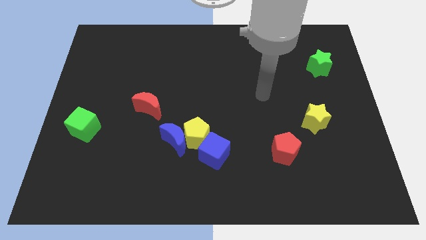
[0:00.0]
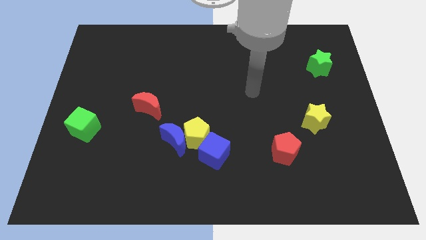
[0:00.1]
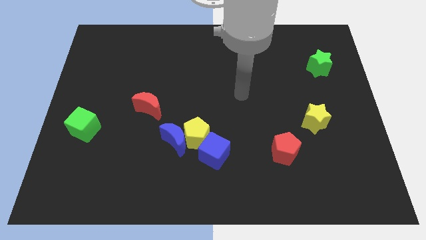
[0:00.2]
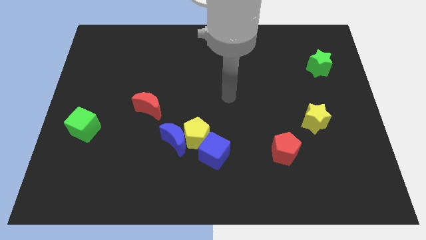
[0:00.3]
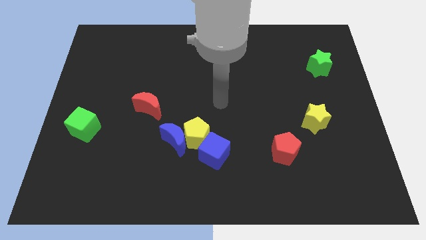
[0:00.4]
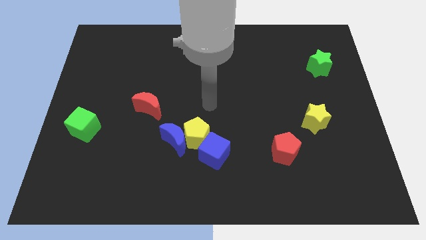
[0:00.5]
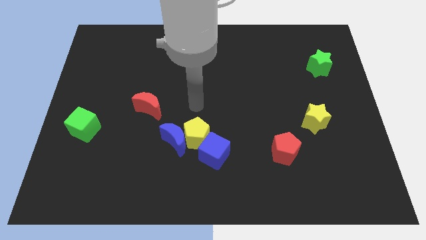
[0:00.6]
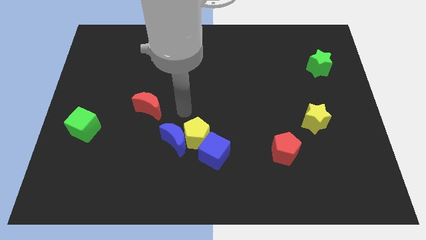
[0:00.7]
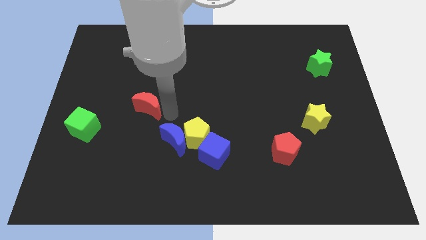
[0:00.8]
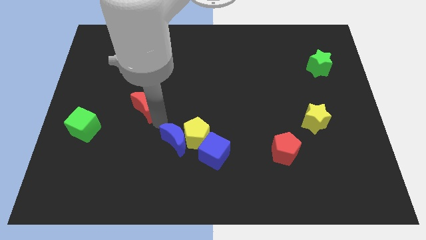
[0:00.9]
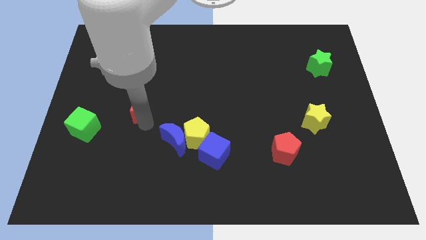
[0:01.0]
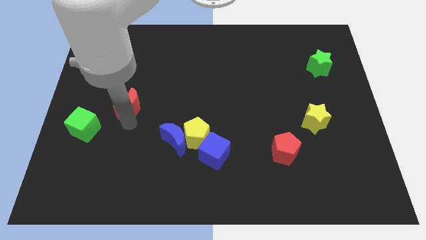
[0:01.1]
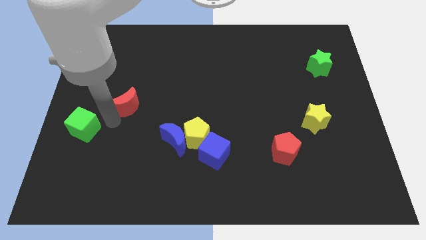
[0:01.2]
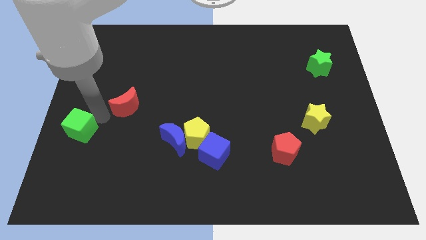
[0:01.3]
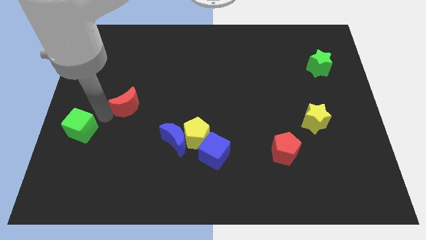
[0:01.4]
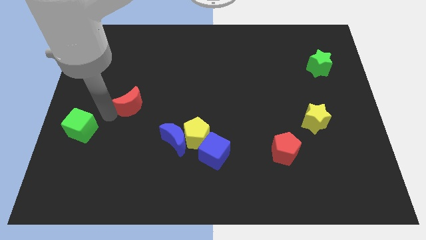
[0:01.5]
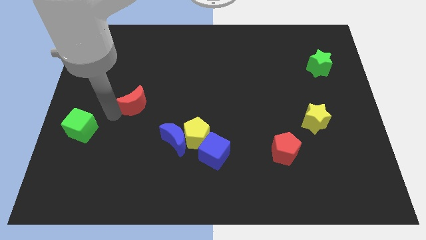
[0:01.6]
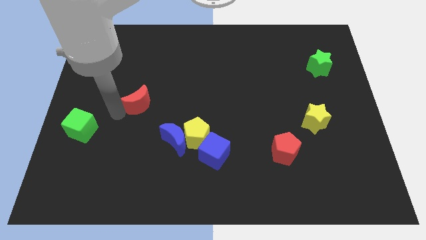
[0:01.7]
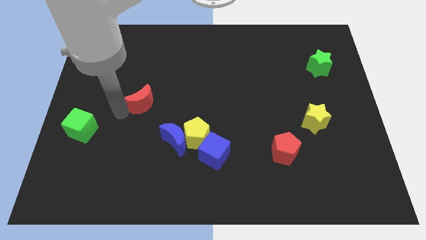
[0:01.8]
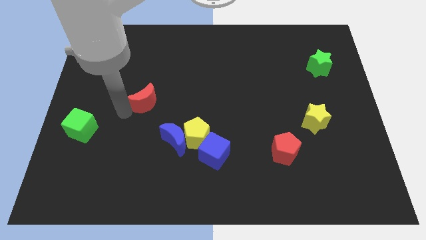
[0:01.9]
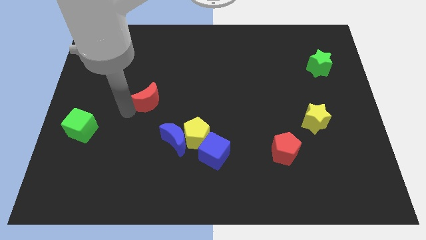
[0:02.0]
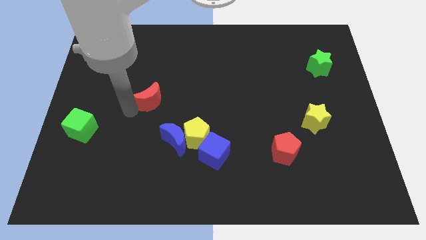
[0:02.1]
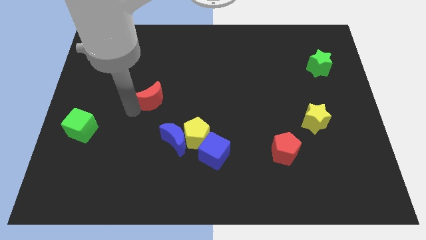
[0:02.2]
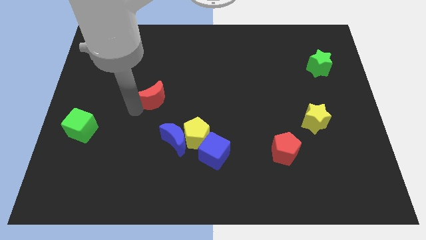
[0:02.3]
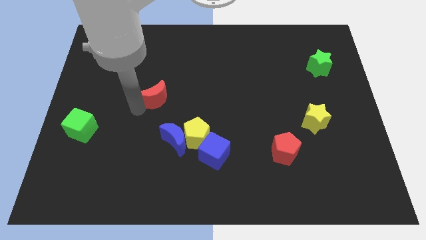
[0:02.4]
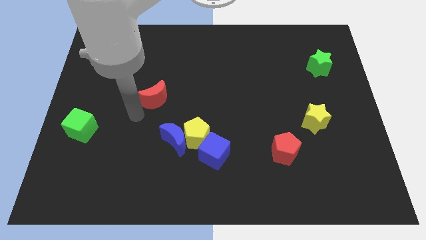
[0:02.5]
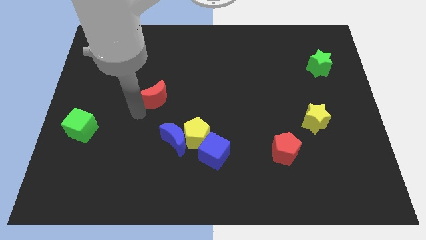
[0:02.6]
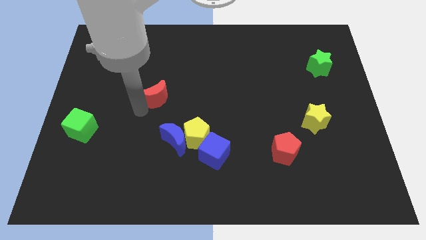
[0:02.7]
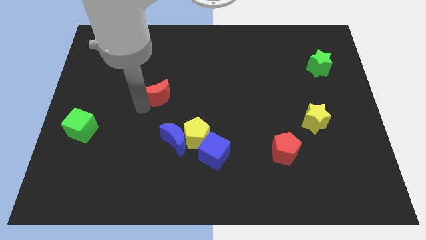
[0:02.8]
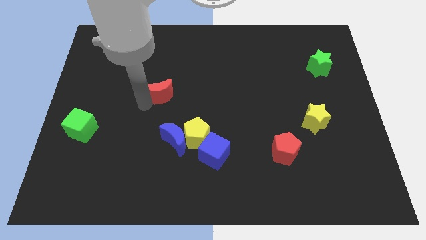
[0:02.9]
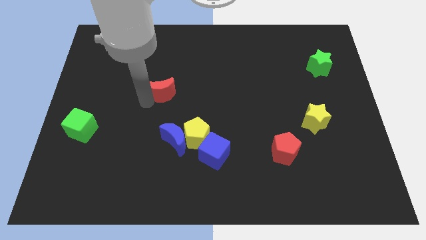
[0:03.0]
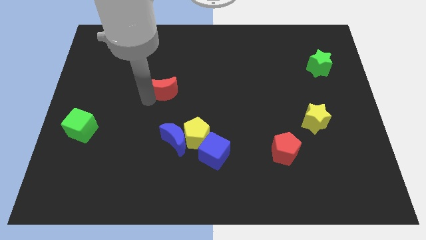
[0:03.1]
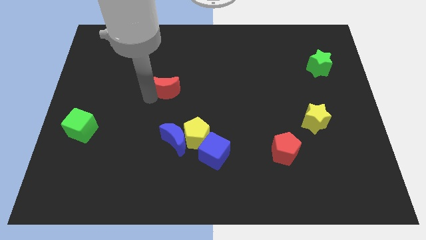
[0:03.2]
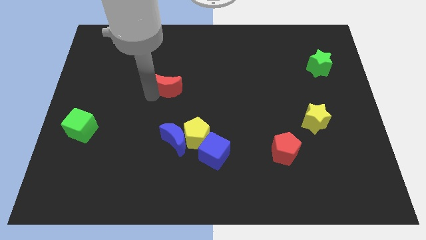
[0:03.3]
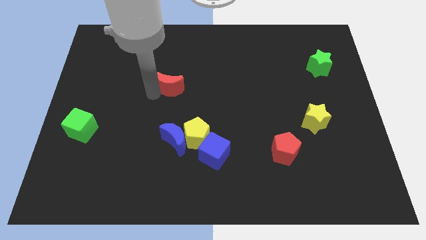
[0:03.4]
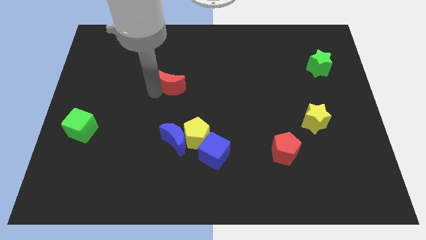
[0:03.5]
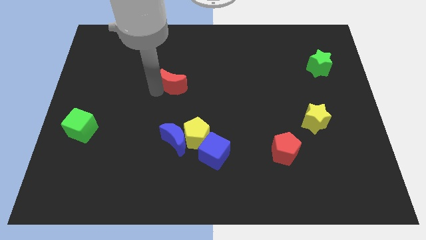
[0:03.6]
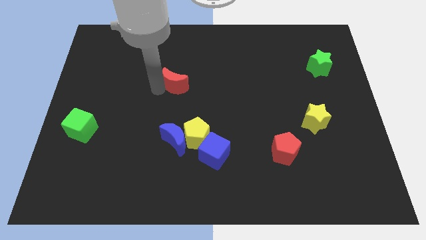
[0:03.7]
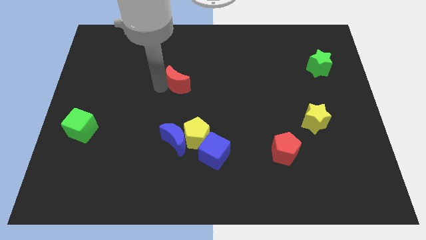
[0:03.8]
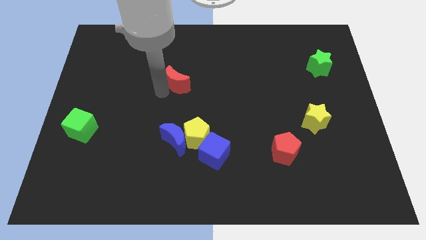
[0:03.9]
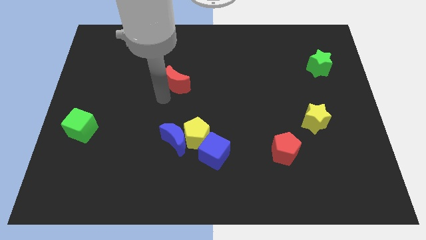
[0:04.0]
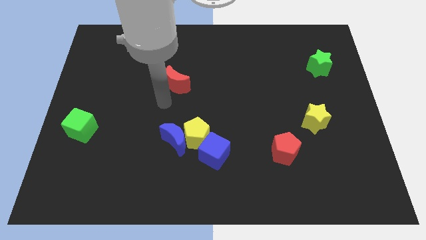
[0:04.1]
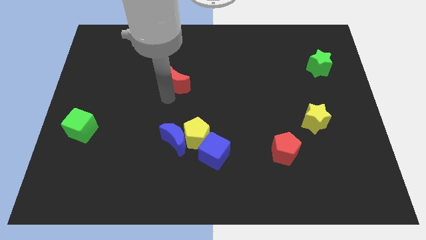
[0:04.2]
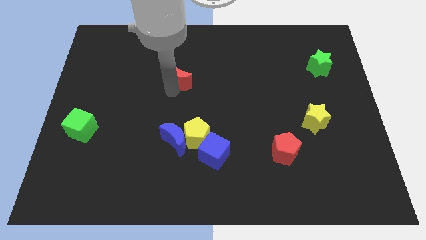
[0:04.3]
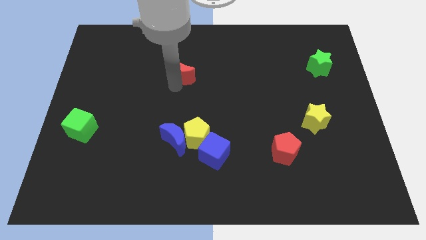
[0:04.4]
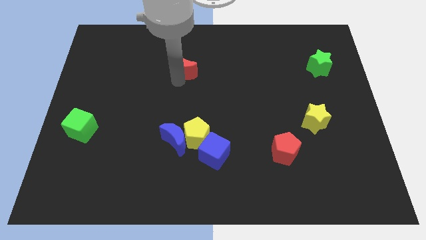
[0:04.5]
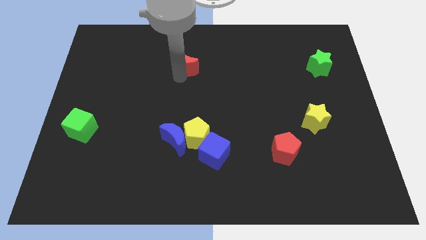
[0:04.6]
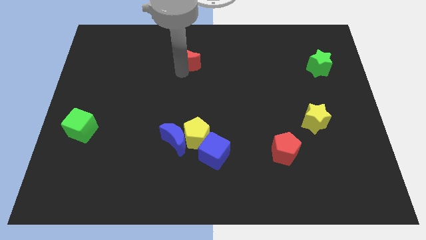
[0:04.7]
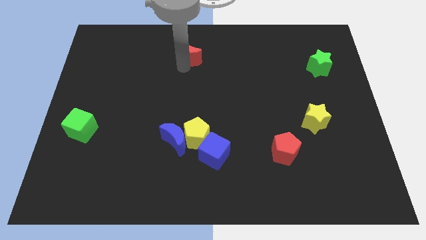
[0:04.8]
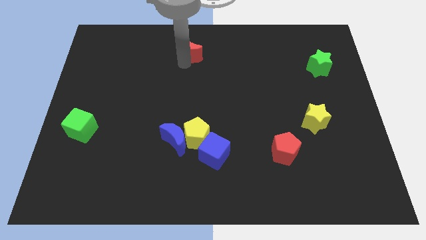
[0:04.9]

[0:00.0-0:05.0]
put the red moon to the towards your base

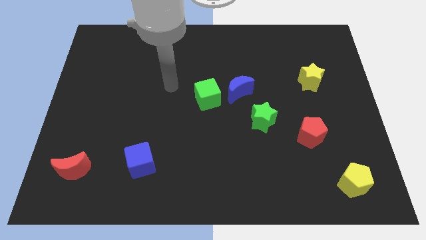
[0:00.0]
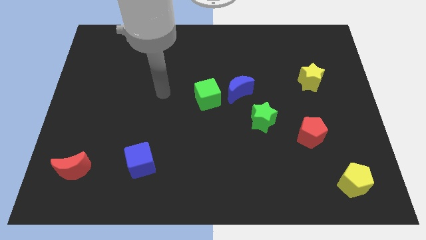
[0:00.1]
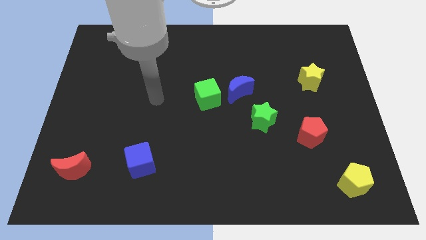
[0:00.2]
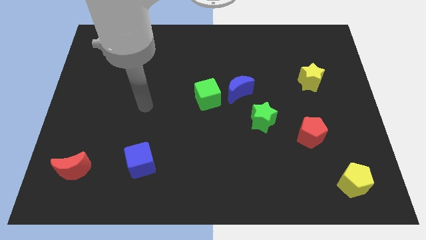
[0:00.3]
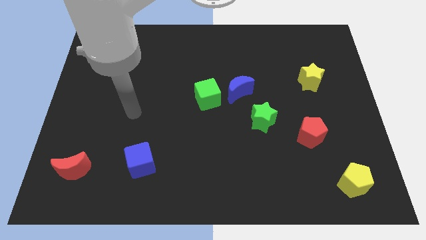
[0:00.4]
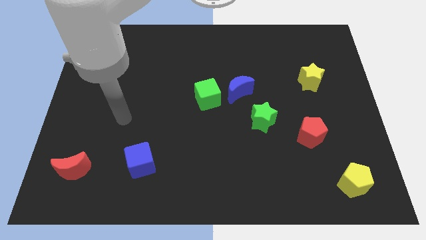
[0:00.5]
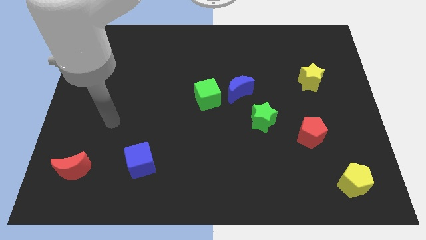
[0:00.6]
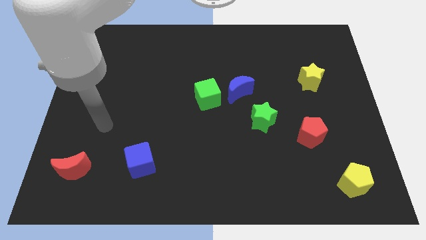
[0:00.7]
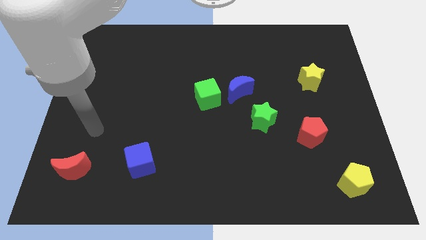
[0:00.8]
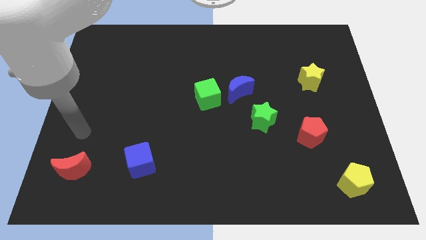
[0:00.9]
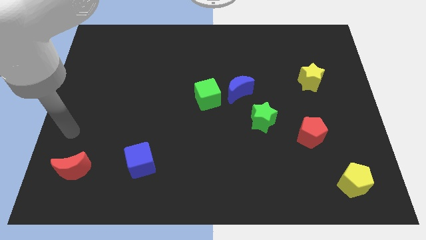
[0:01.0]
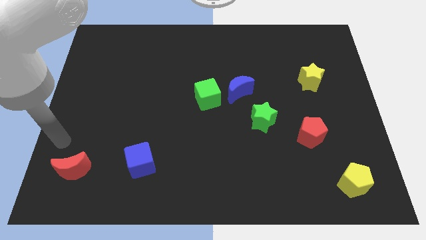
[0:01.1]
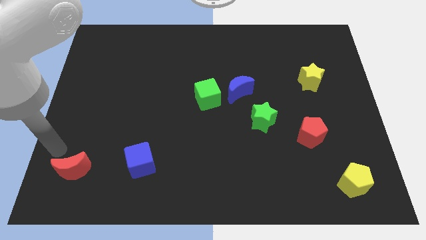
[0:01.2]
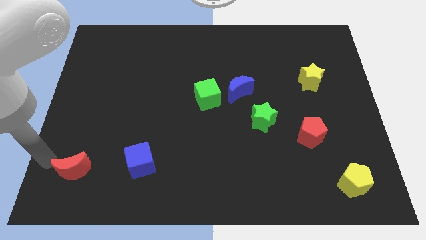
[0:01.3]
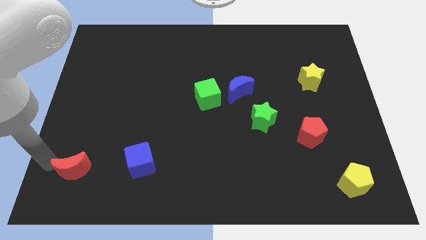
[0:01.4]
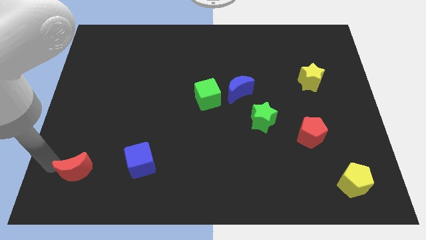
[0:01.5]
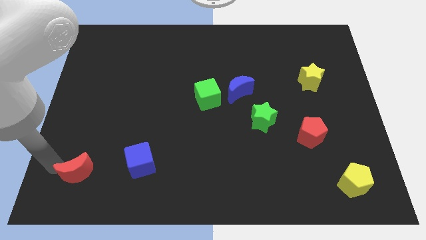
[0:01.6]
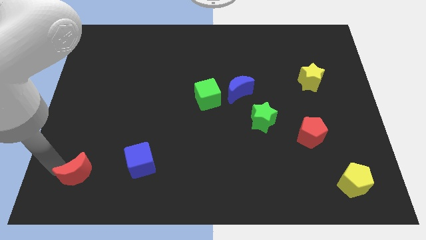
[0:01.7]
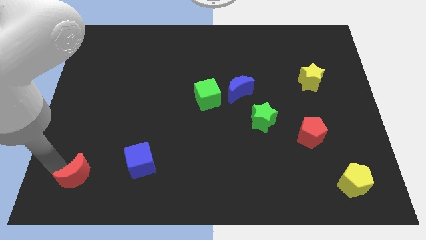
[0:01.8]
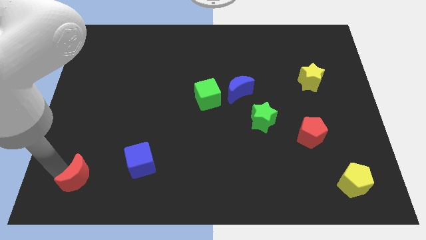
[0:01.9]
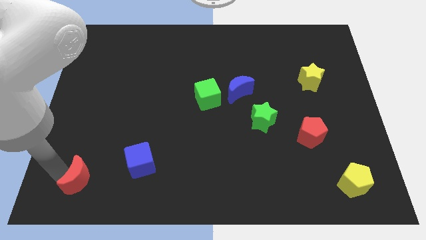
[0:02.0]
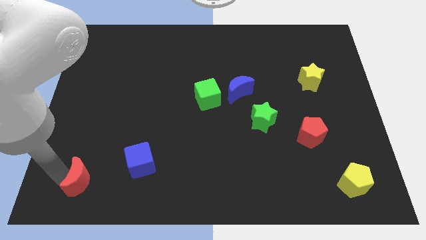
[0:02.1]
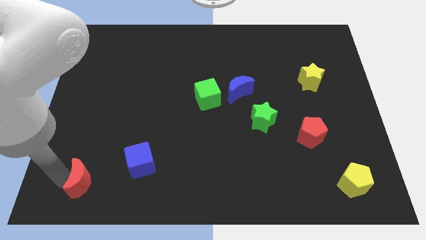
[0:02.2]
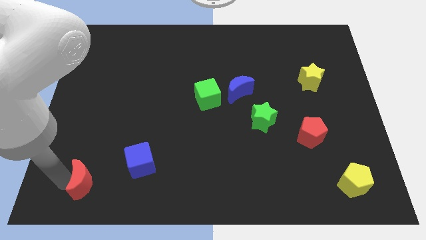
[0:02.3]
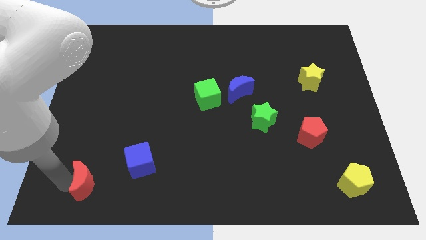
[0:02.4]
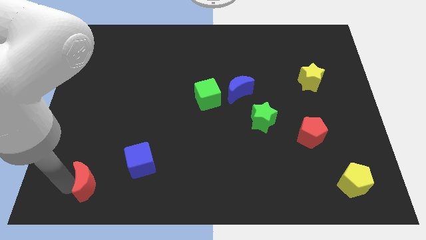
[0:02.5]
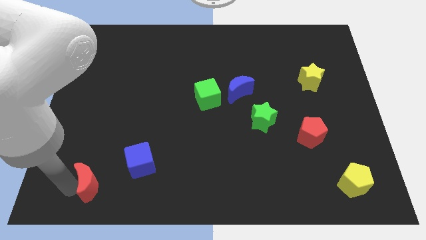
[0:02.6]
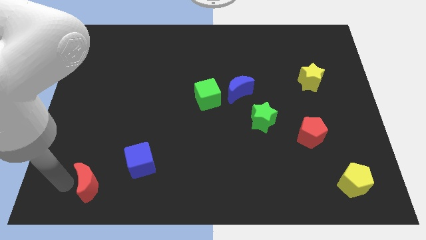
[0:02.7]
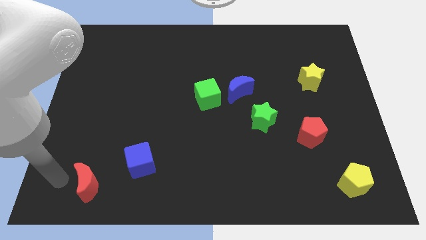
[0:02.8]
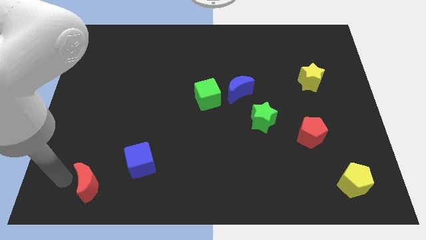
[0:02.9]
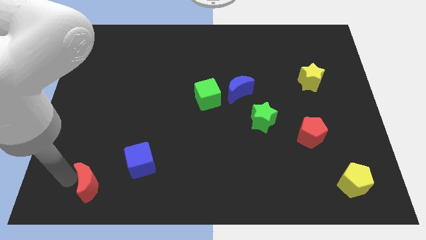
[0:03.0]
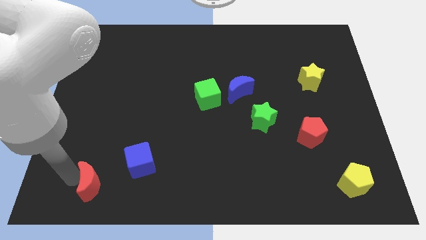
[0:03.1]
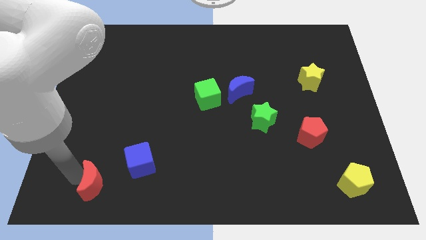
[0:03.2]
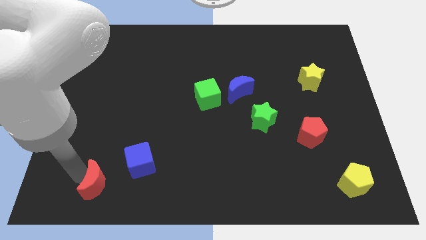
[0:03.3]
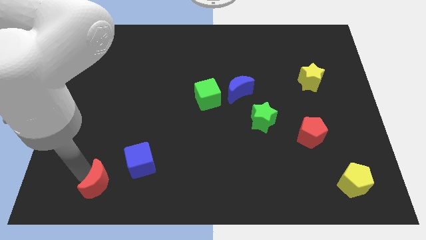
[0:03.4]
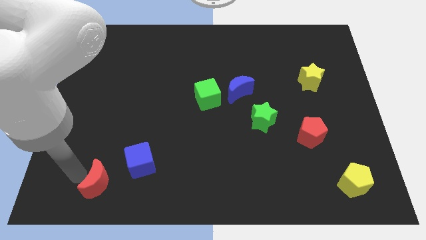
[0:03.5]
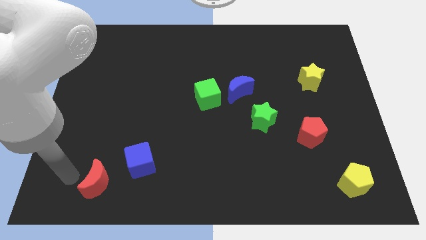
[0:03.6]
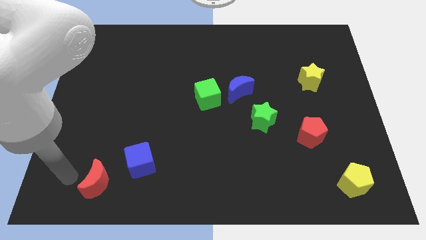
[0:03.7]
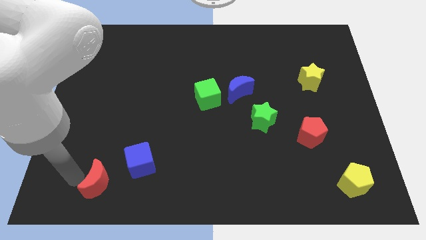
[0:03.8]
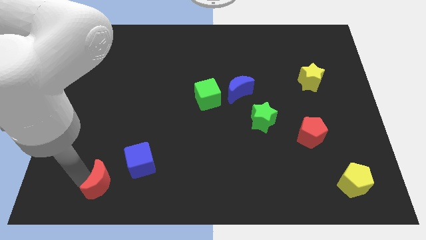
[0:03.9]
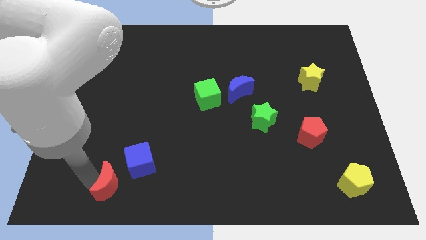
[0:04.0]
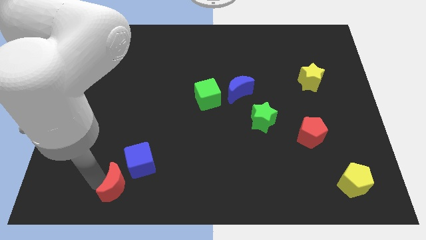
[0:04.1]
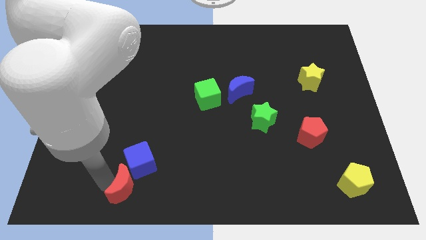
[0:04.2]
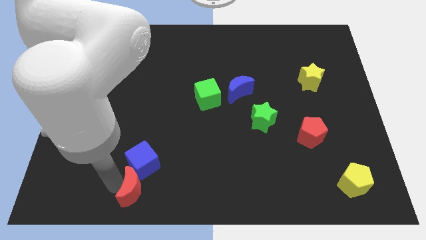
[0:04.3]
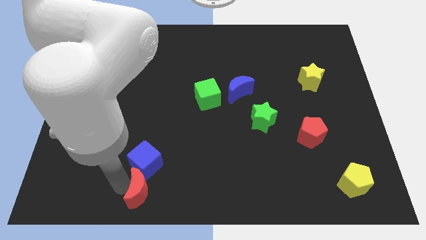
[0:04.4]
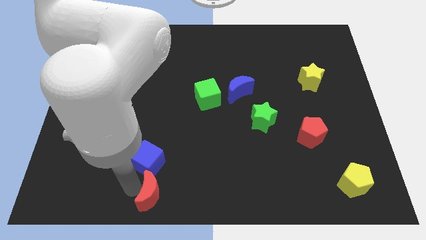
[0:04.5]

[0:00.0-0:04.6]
put the red moon to the bottom side
